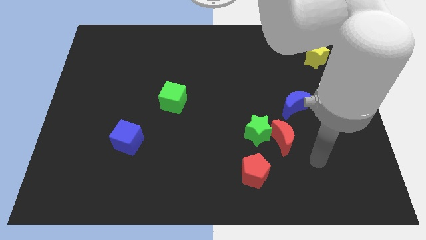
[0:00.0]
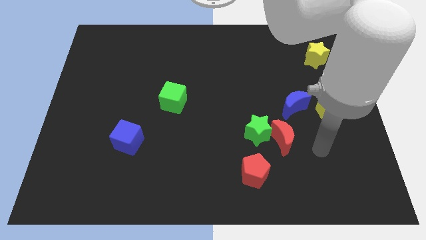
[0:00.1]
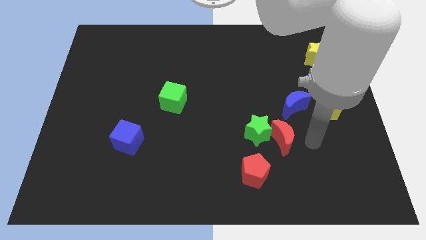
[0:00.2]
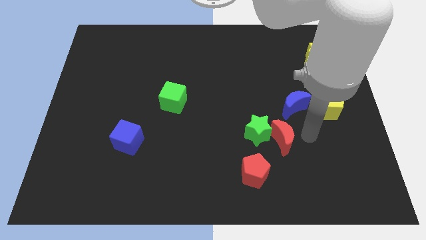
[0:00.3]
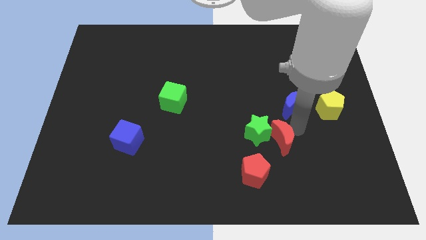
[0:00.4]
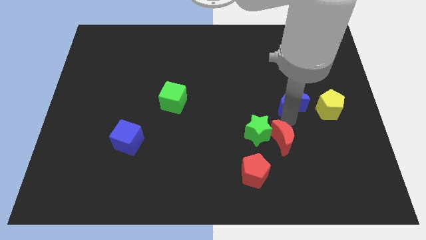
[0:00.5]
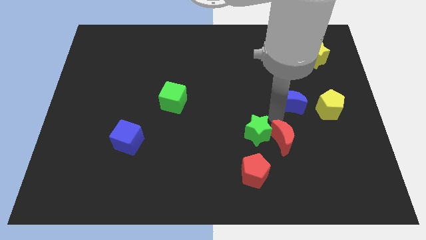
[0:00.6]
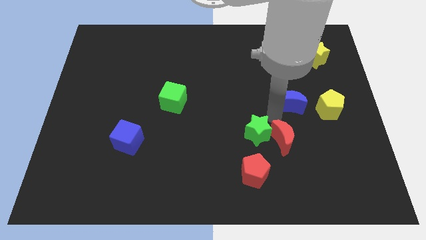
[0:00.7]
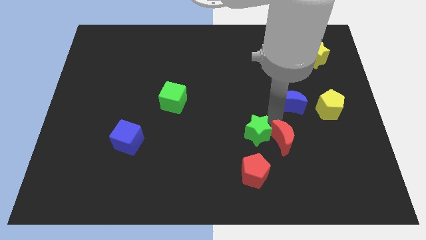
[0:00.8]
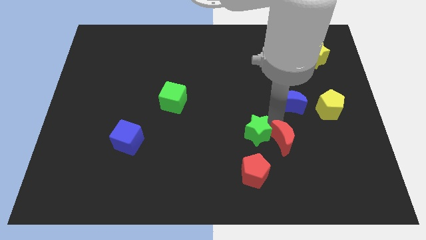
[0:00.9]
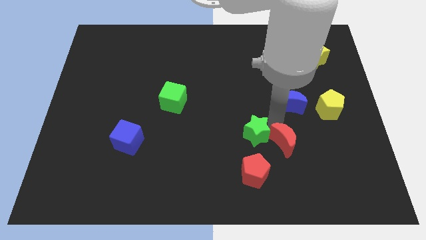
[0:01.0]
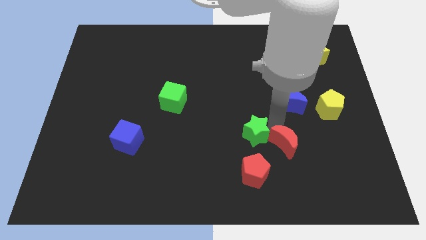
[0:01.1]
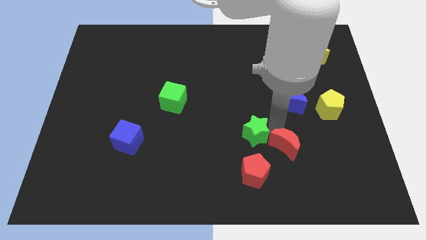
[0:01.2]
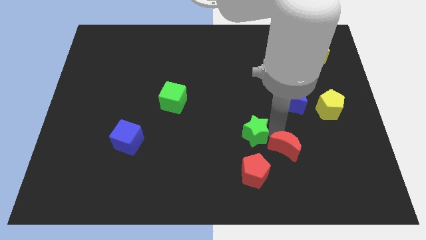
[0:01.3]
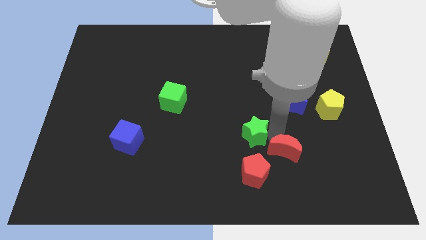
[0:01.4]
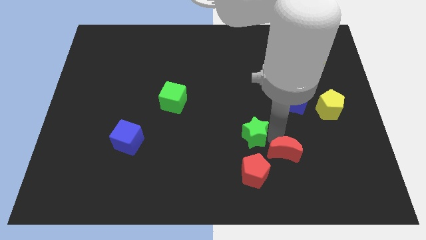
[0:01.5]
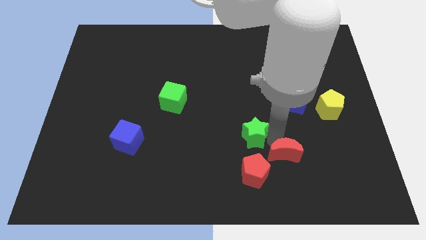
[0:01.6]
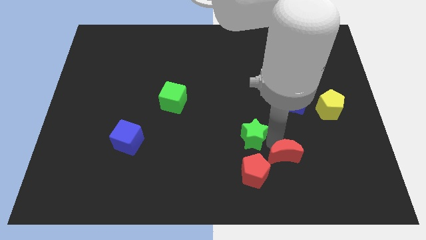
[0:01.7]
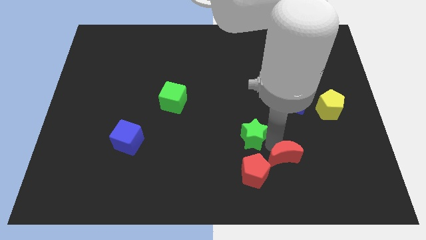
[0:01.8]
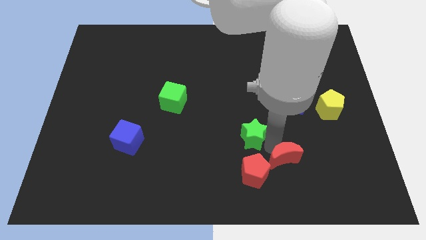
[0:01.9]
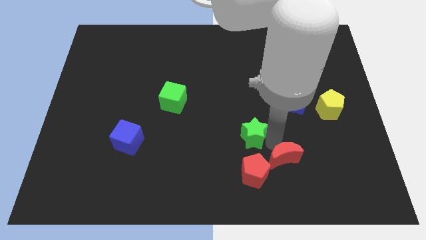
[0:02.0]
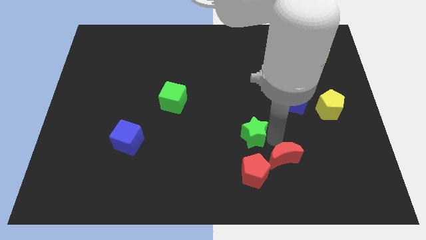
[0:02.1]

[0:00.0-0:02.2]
separate the red moon from the green star and blue moon

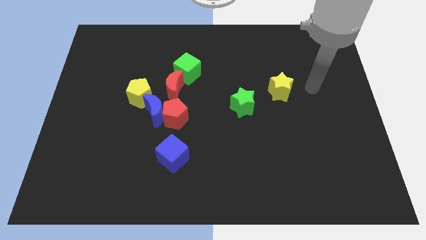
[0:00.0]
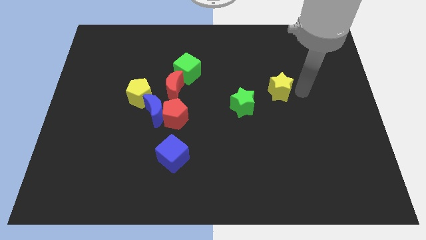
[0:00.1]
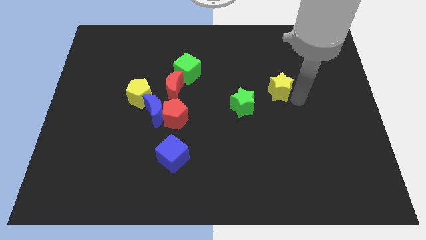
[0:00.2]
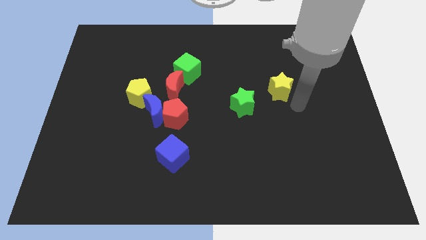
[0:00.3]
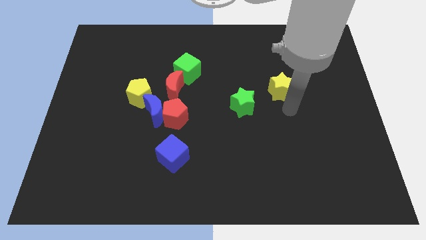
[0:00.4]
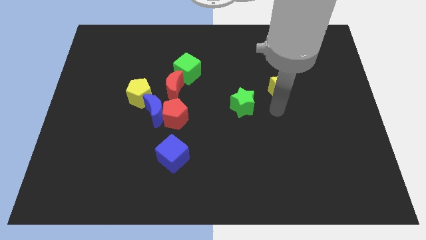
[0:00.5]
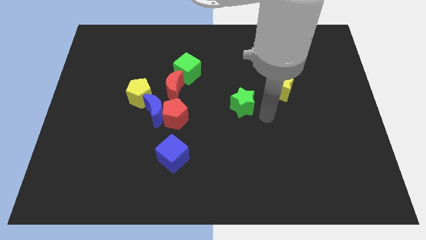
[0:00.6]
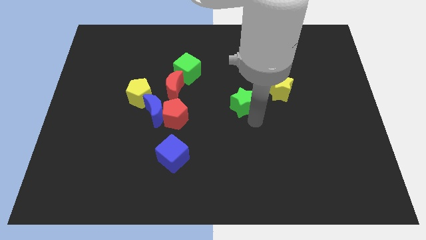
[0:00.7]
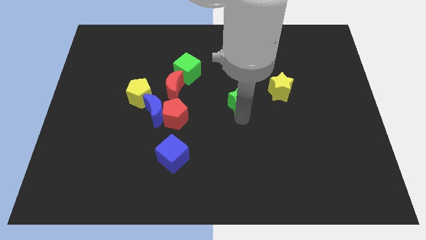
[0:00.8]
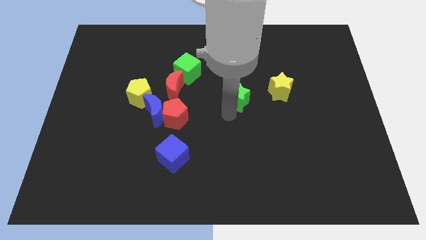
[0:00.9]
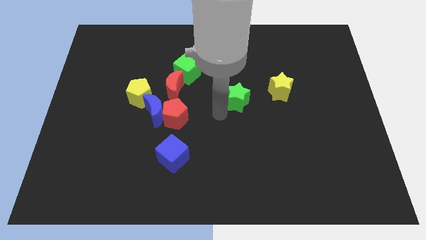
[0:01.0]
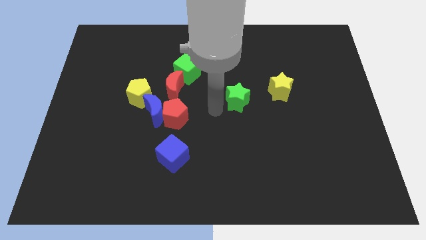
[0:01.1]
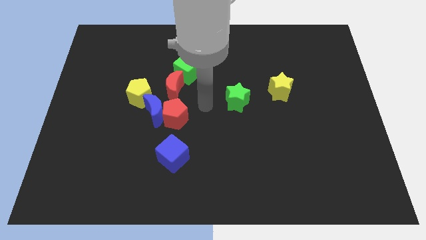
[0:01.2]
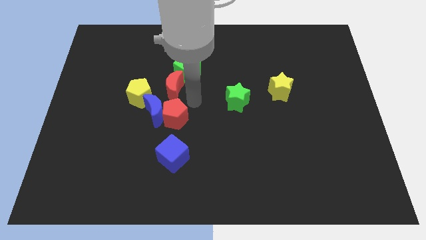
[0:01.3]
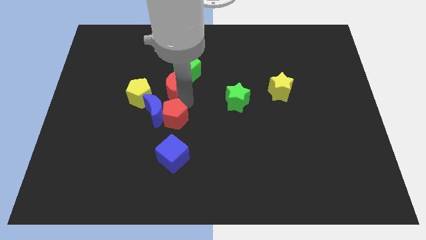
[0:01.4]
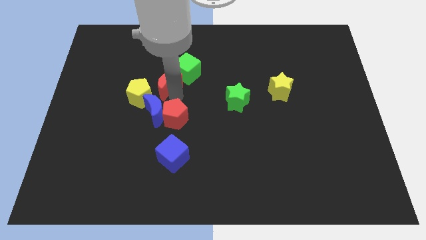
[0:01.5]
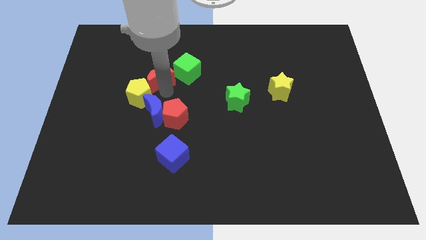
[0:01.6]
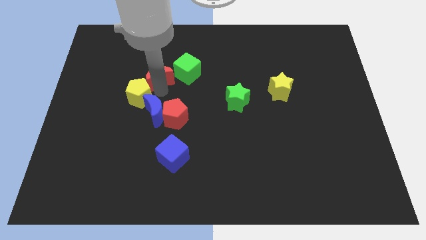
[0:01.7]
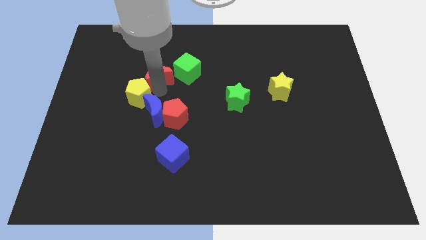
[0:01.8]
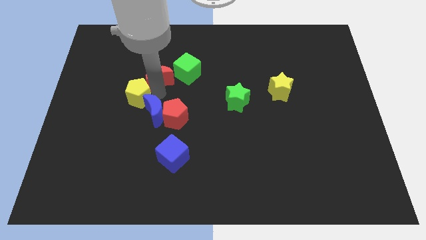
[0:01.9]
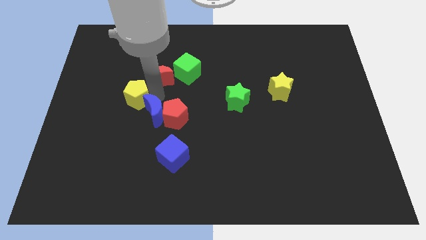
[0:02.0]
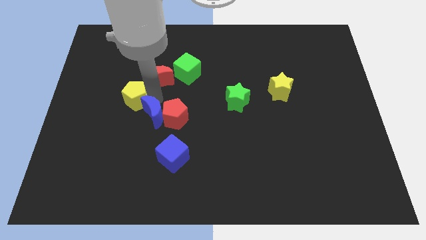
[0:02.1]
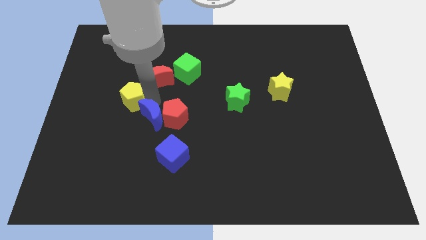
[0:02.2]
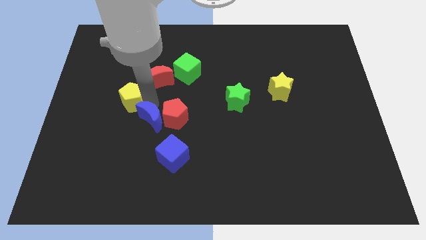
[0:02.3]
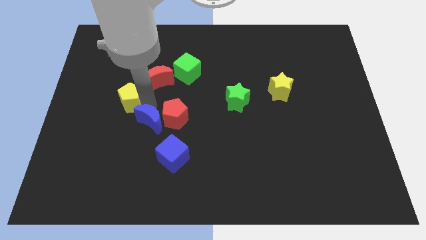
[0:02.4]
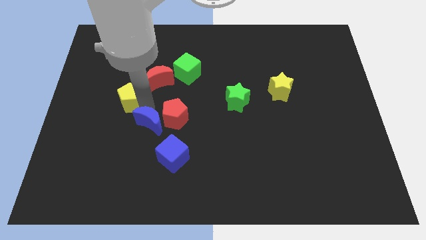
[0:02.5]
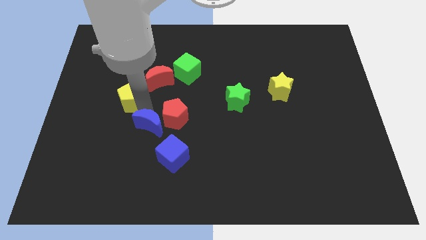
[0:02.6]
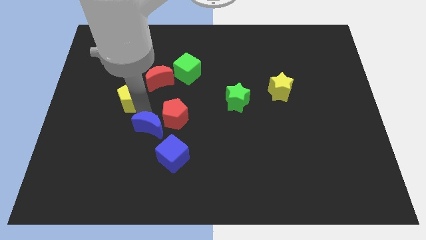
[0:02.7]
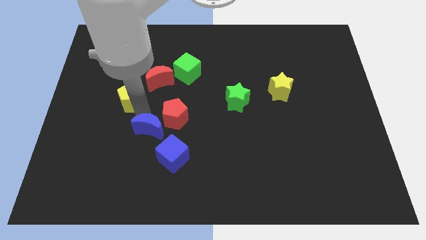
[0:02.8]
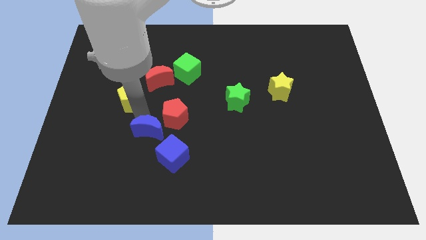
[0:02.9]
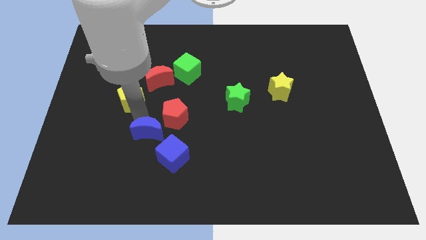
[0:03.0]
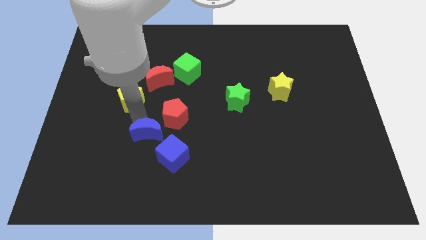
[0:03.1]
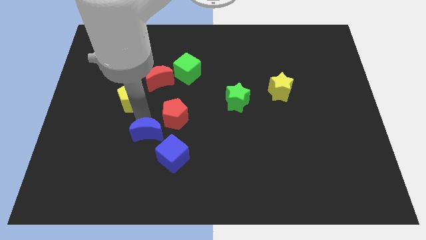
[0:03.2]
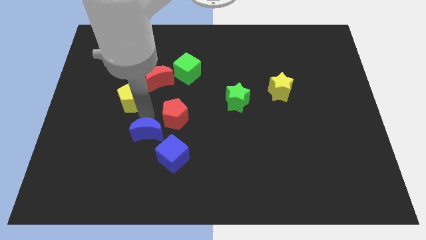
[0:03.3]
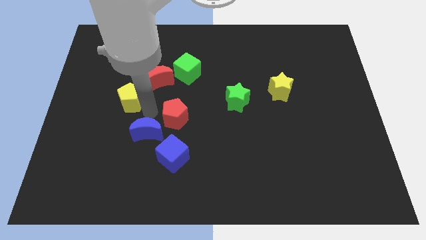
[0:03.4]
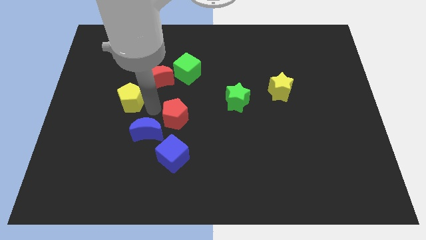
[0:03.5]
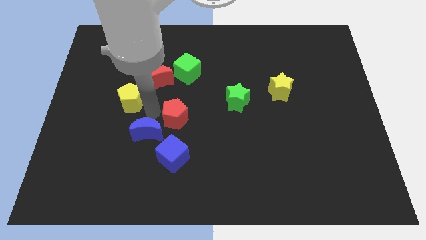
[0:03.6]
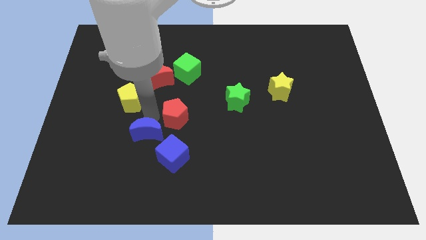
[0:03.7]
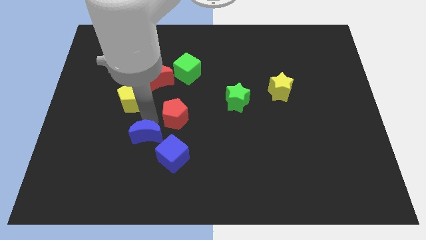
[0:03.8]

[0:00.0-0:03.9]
move the blue moon away from the group of blocks

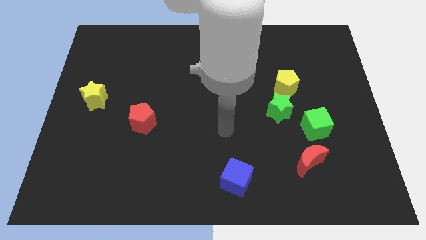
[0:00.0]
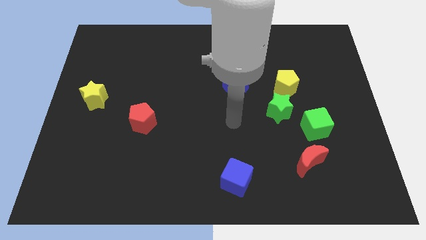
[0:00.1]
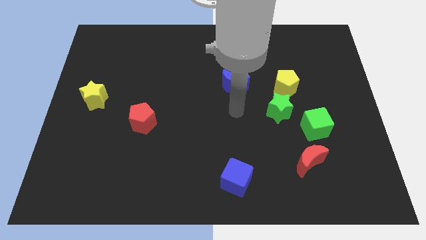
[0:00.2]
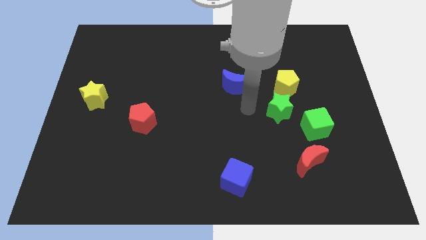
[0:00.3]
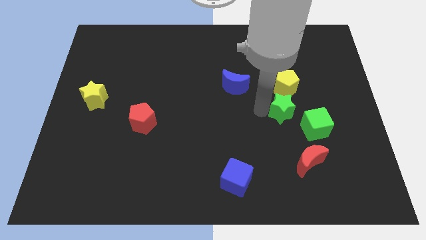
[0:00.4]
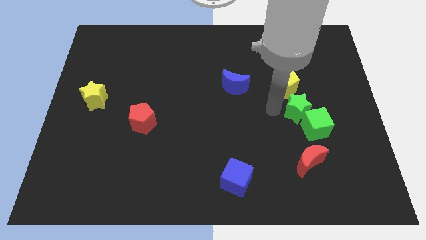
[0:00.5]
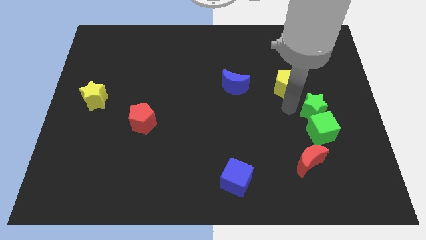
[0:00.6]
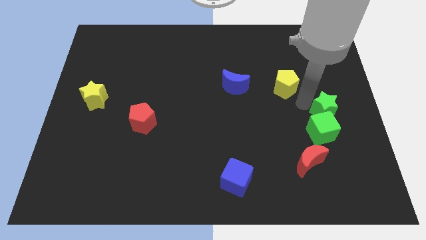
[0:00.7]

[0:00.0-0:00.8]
move the yellow pentagon away from the green star

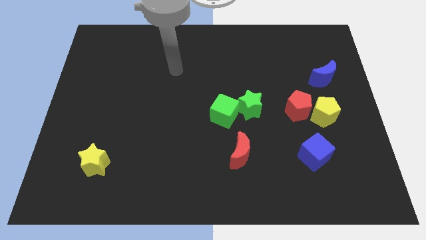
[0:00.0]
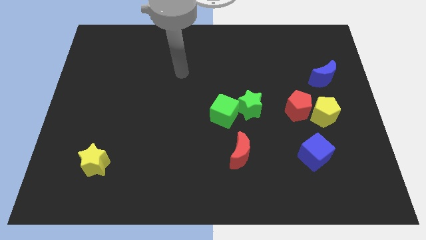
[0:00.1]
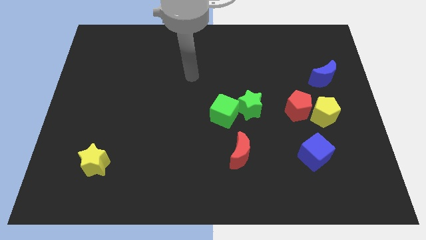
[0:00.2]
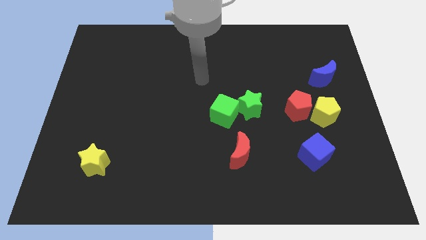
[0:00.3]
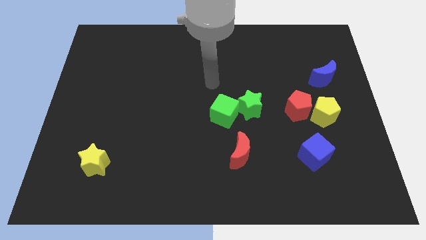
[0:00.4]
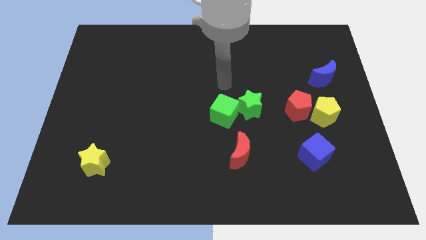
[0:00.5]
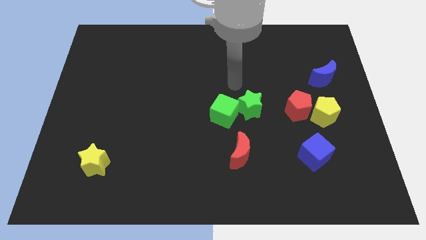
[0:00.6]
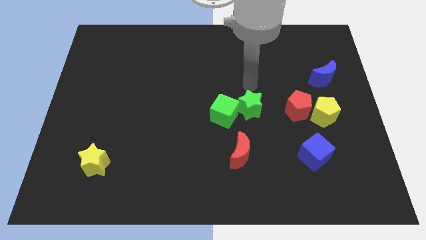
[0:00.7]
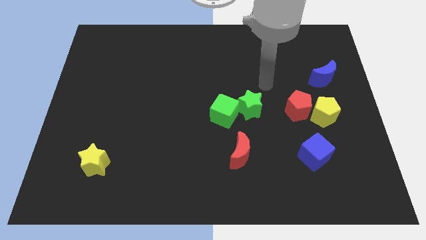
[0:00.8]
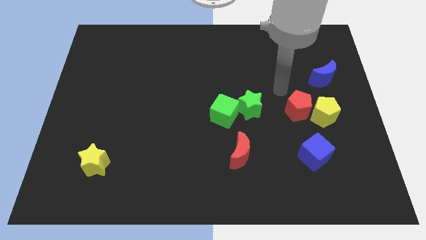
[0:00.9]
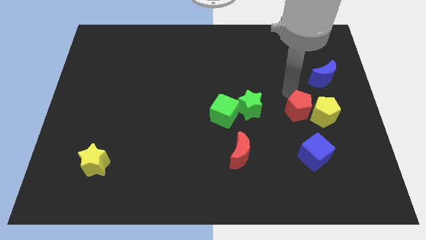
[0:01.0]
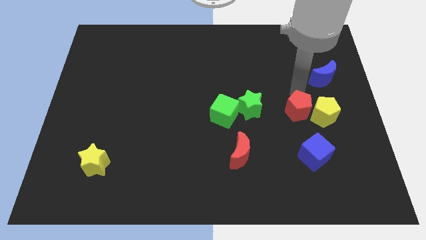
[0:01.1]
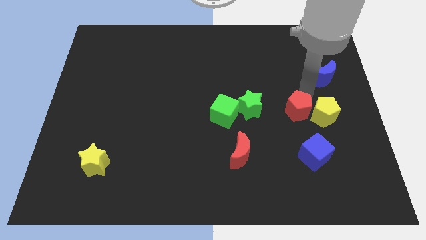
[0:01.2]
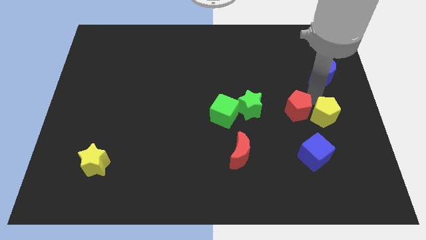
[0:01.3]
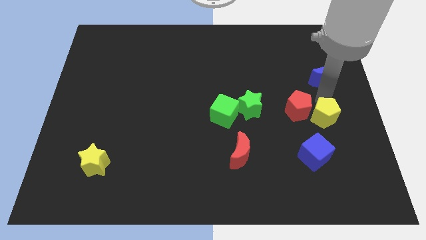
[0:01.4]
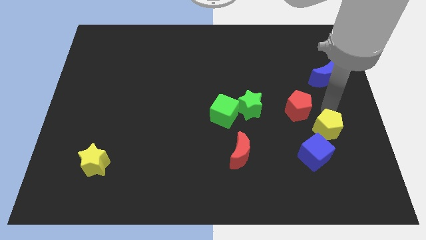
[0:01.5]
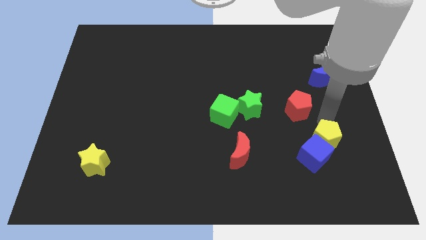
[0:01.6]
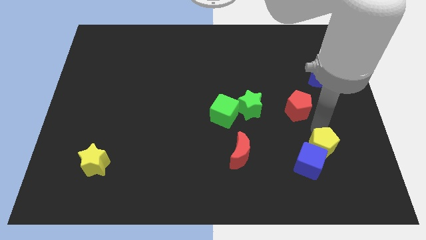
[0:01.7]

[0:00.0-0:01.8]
pull the red pentagon apart from the yellow pentagon

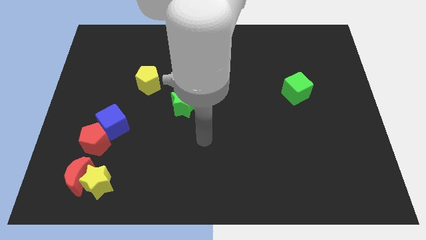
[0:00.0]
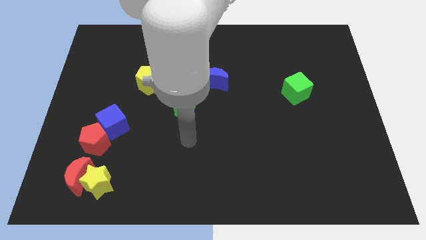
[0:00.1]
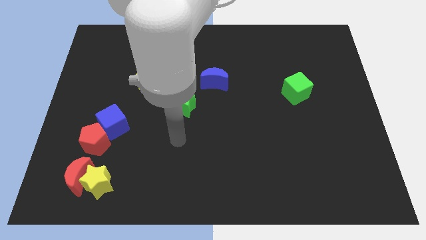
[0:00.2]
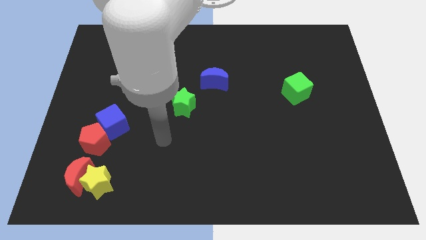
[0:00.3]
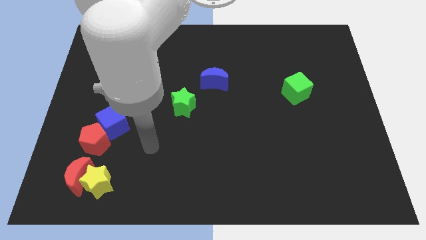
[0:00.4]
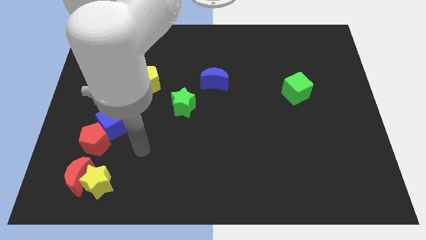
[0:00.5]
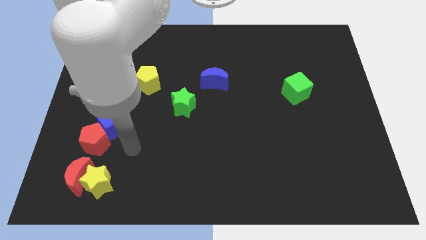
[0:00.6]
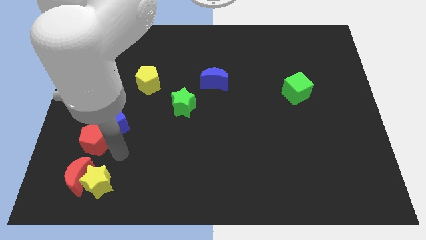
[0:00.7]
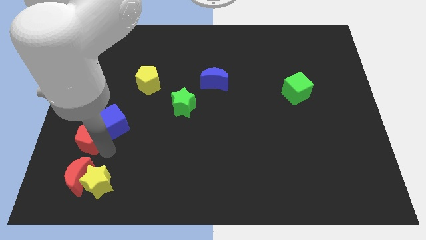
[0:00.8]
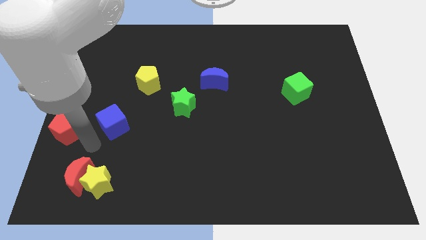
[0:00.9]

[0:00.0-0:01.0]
separate the blue cube from the red pentagon
